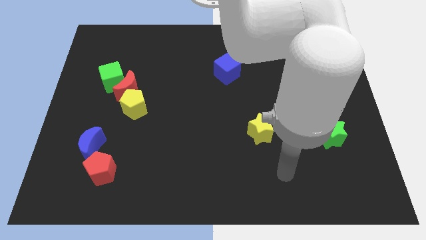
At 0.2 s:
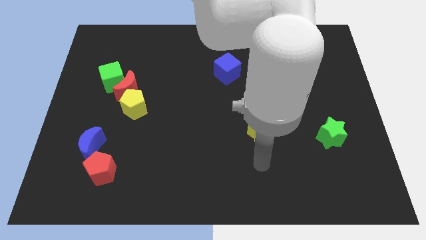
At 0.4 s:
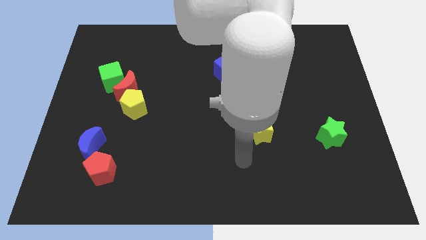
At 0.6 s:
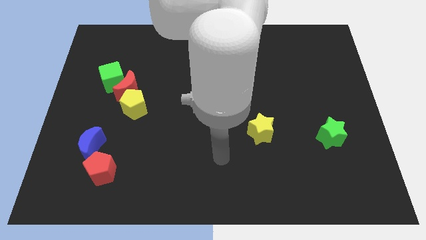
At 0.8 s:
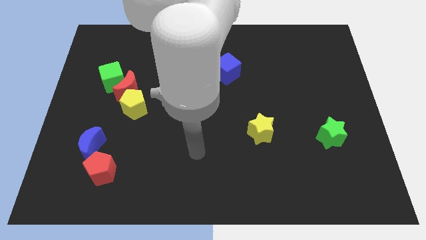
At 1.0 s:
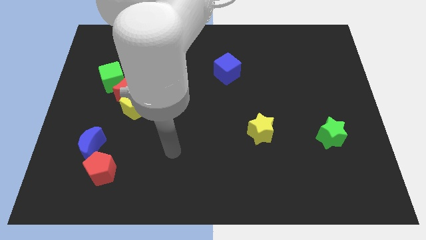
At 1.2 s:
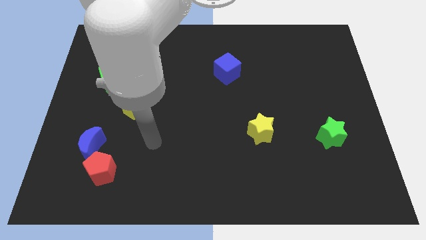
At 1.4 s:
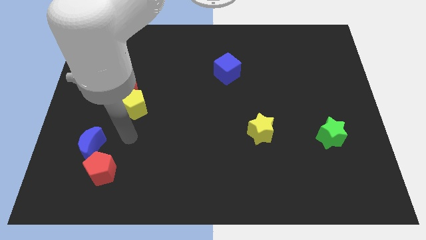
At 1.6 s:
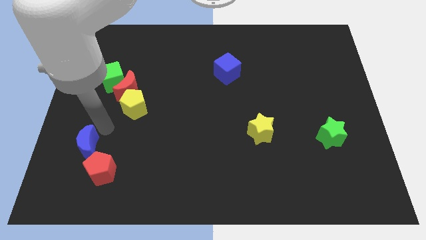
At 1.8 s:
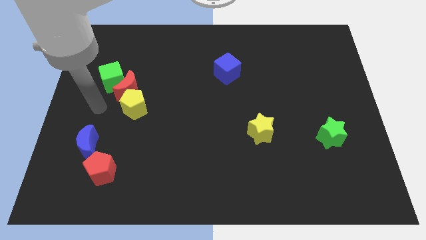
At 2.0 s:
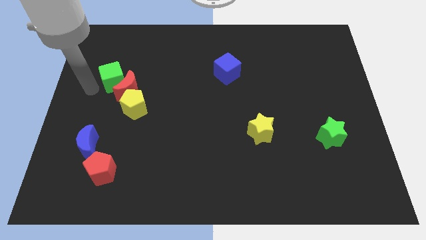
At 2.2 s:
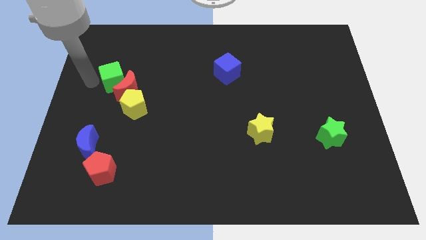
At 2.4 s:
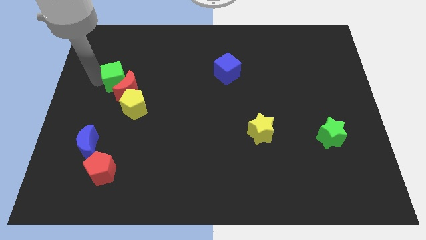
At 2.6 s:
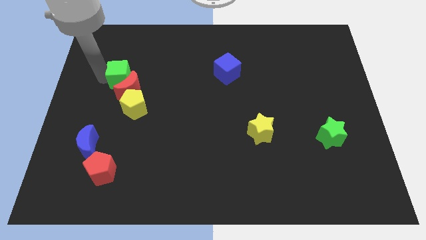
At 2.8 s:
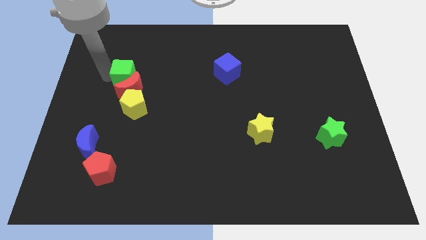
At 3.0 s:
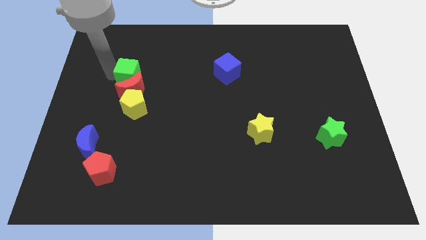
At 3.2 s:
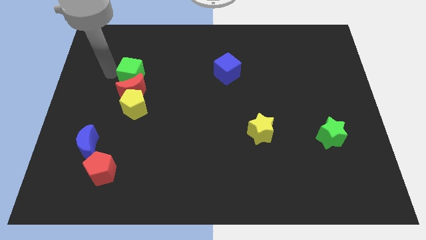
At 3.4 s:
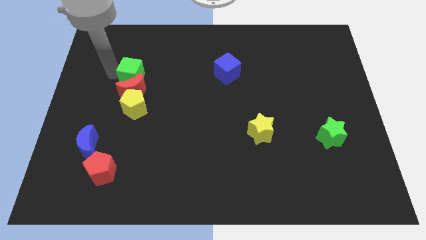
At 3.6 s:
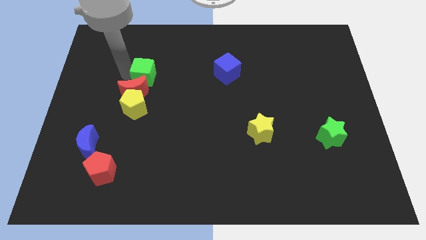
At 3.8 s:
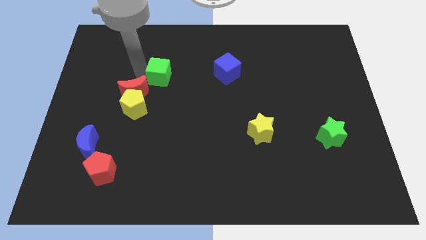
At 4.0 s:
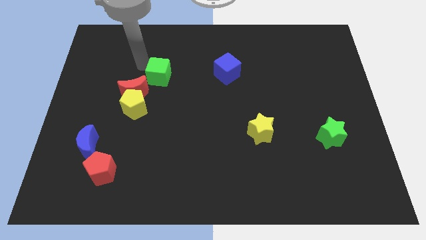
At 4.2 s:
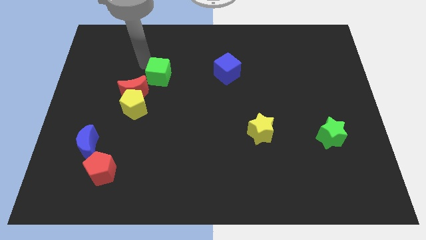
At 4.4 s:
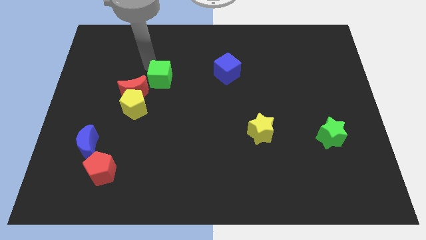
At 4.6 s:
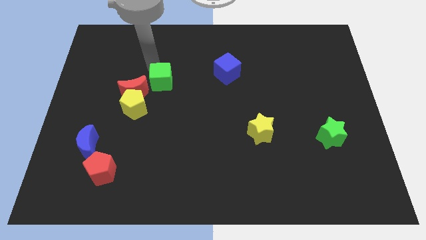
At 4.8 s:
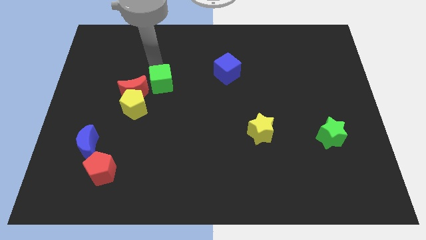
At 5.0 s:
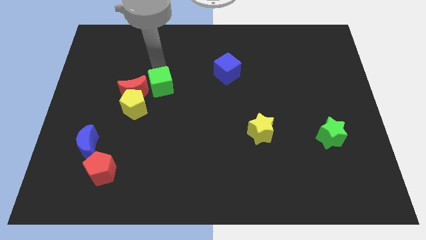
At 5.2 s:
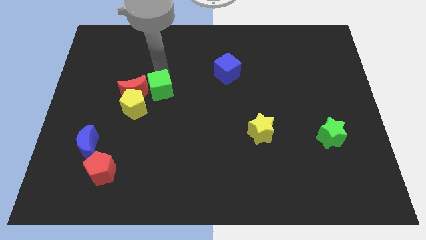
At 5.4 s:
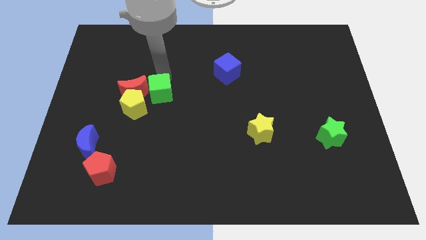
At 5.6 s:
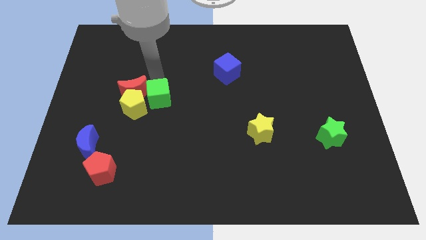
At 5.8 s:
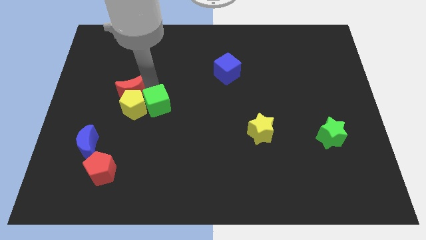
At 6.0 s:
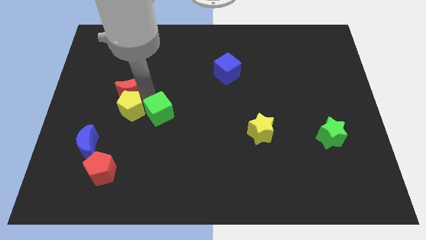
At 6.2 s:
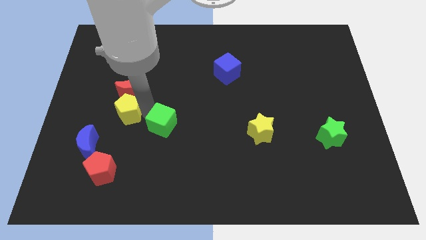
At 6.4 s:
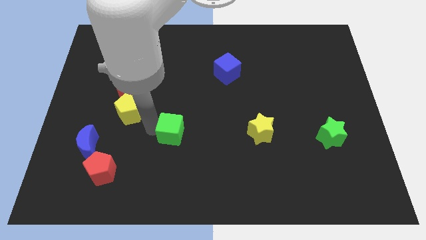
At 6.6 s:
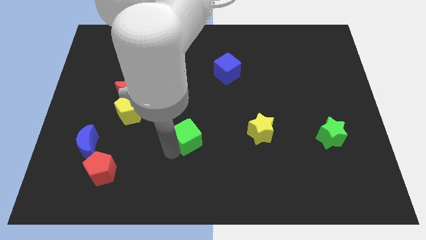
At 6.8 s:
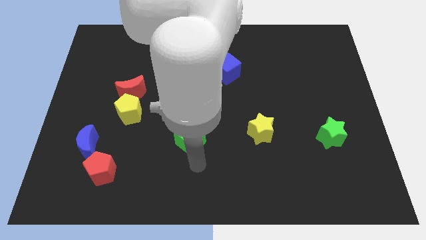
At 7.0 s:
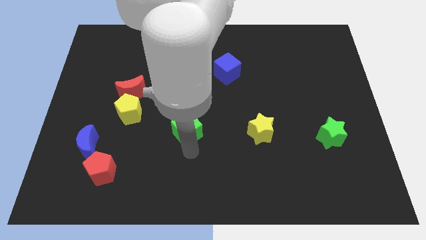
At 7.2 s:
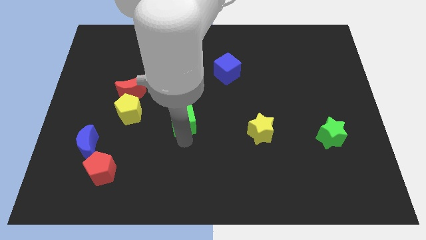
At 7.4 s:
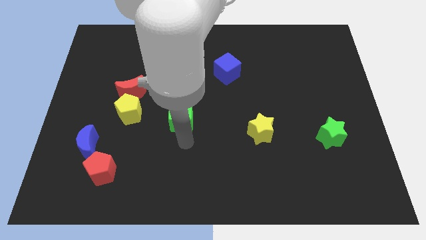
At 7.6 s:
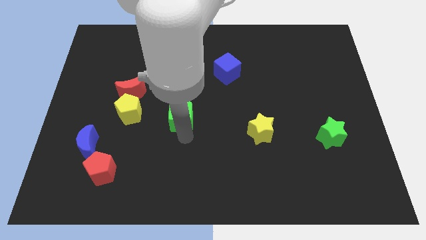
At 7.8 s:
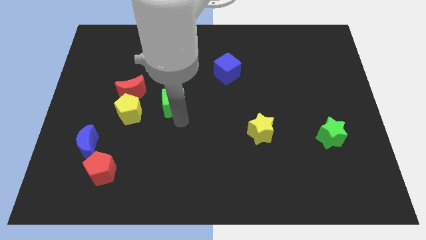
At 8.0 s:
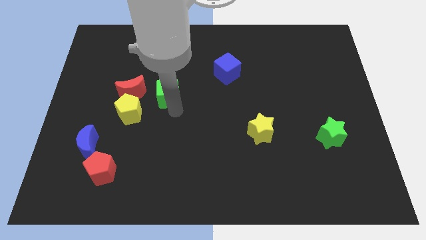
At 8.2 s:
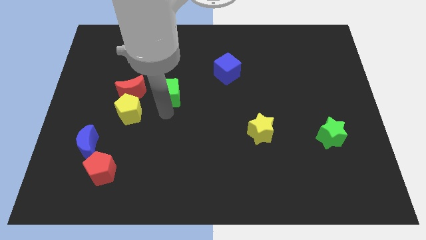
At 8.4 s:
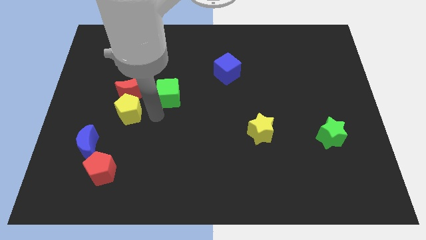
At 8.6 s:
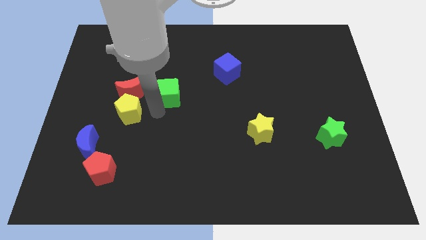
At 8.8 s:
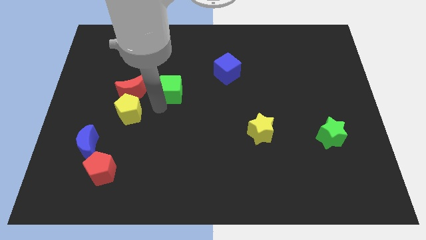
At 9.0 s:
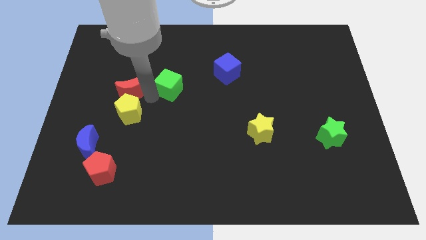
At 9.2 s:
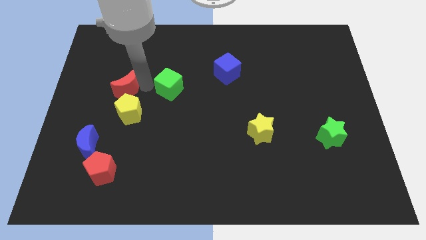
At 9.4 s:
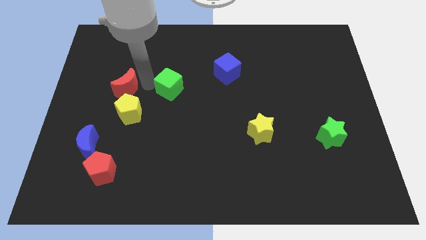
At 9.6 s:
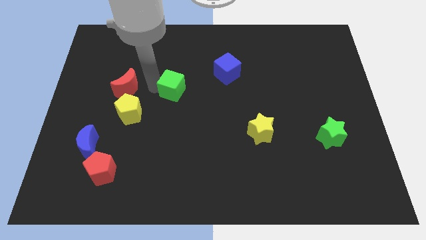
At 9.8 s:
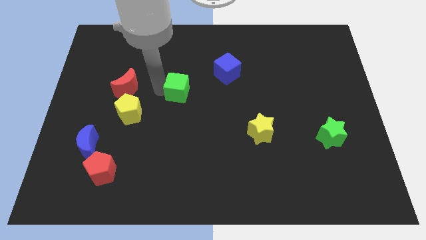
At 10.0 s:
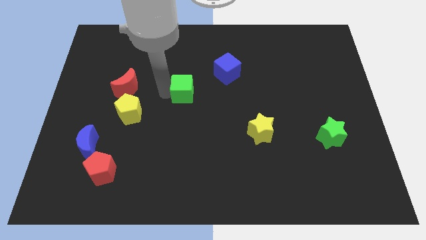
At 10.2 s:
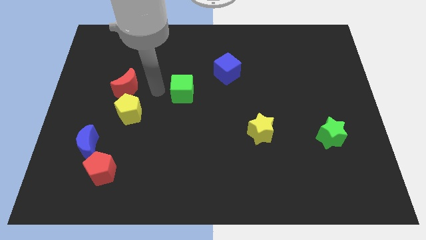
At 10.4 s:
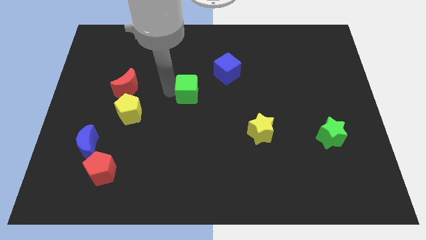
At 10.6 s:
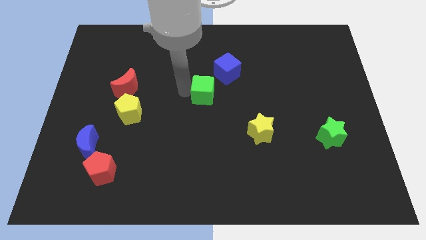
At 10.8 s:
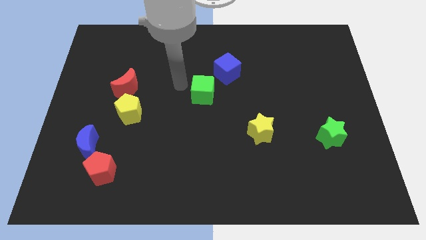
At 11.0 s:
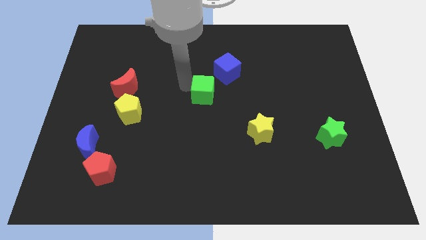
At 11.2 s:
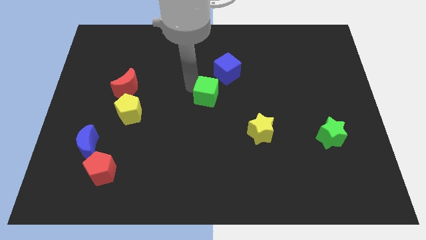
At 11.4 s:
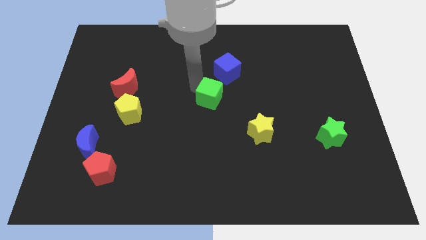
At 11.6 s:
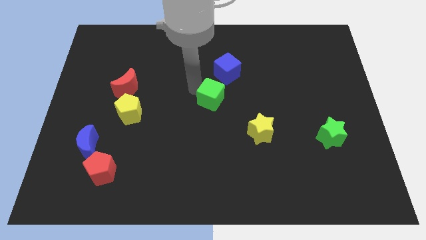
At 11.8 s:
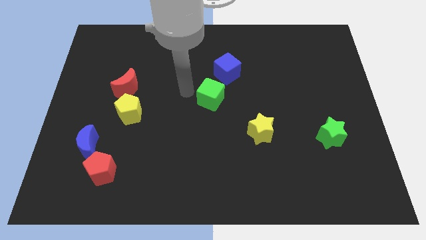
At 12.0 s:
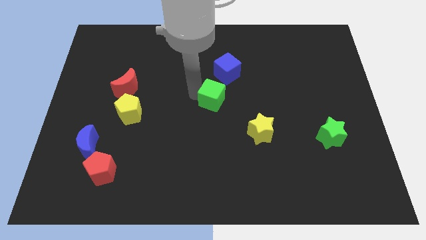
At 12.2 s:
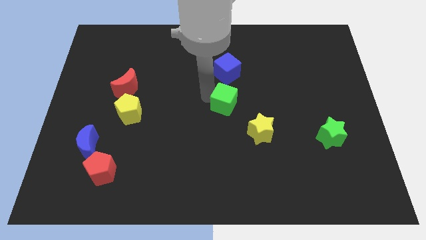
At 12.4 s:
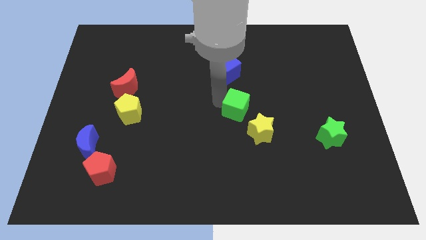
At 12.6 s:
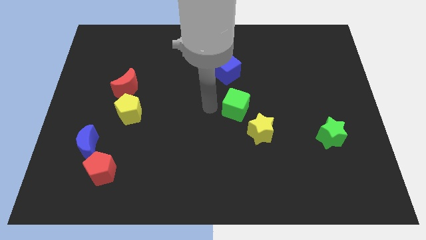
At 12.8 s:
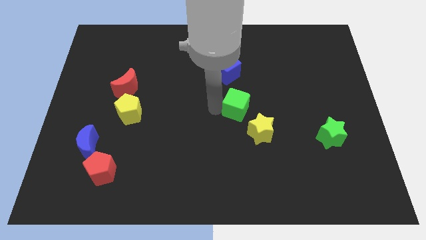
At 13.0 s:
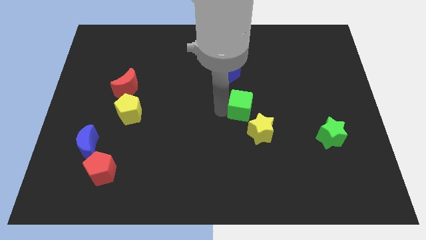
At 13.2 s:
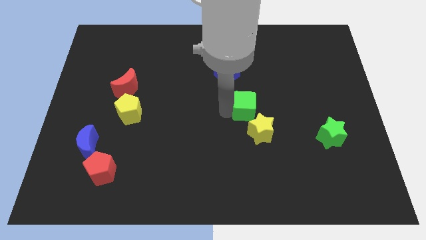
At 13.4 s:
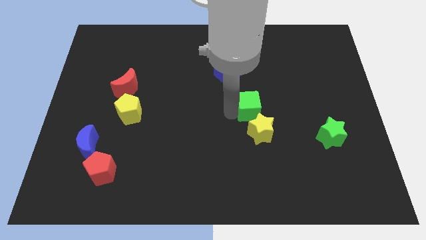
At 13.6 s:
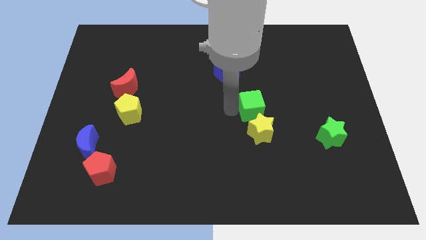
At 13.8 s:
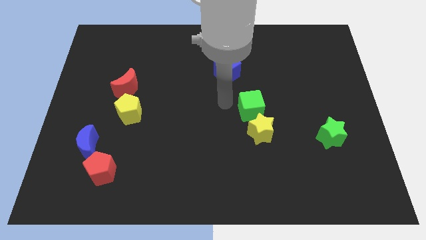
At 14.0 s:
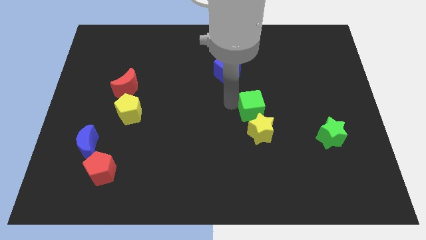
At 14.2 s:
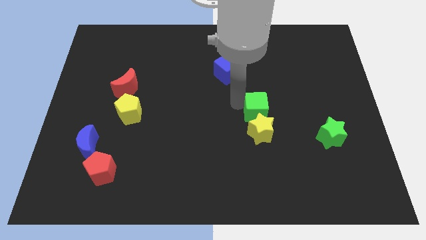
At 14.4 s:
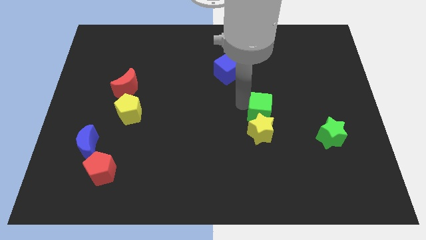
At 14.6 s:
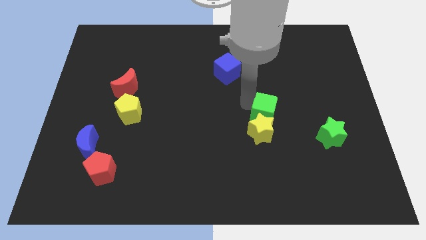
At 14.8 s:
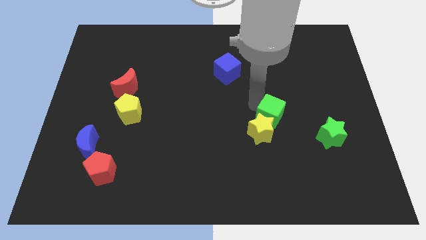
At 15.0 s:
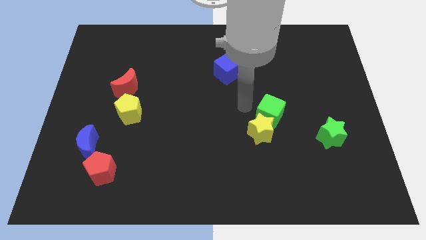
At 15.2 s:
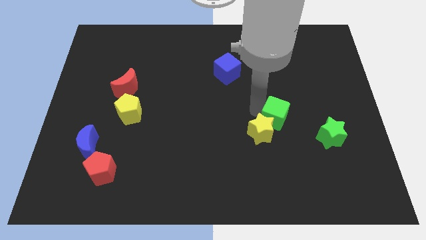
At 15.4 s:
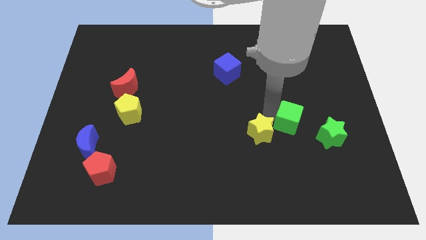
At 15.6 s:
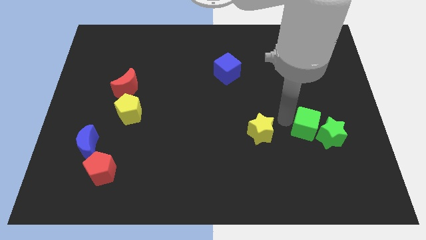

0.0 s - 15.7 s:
move the green cube to the green star
